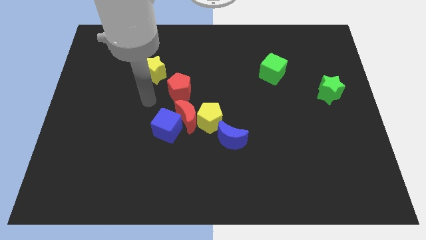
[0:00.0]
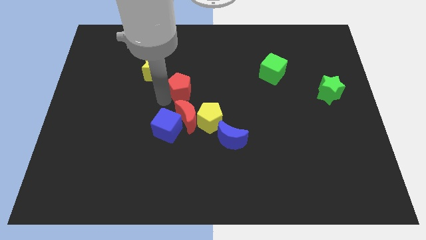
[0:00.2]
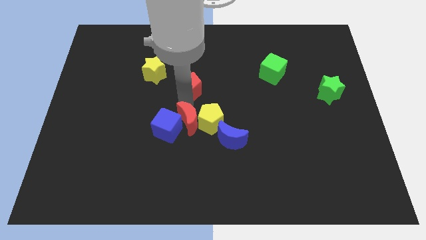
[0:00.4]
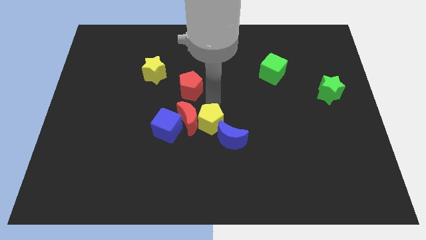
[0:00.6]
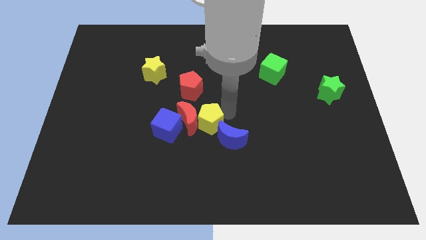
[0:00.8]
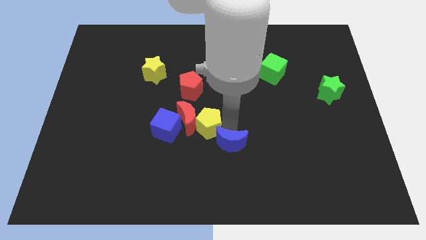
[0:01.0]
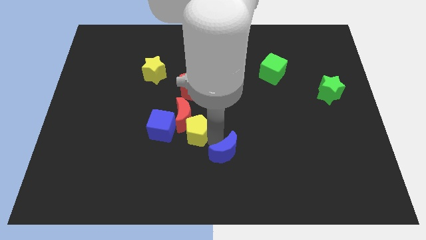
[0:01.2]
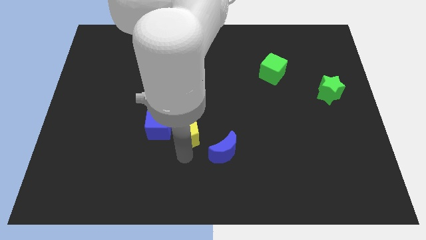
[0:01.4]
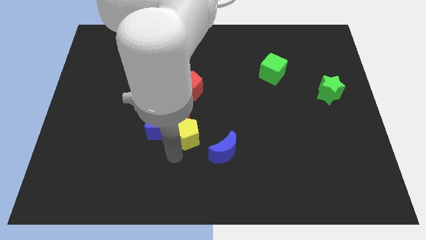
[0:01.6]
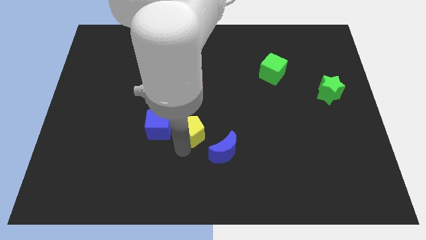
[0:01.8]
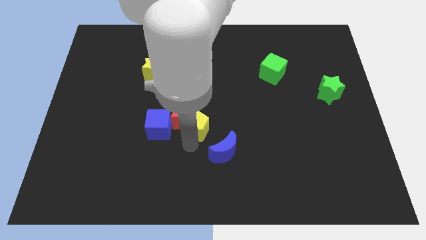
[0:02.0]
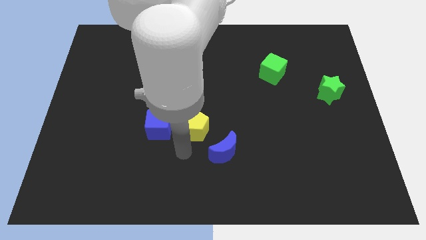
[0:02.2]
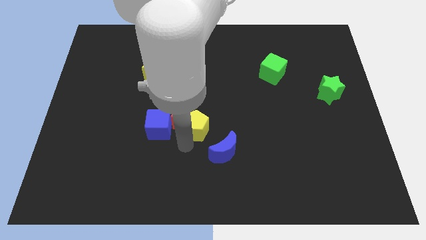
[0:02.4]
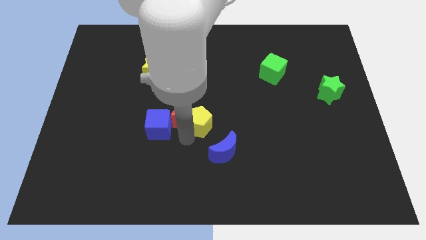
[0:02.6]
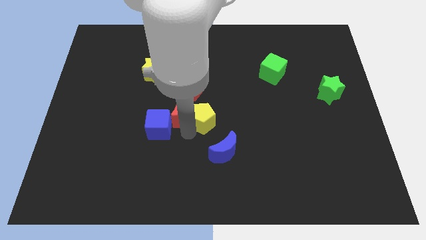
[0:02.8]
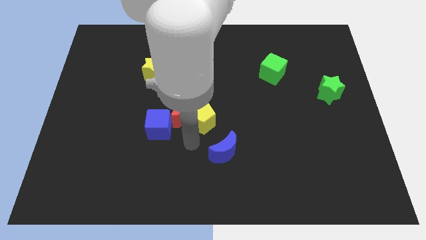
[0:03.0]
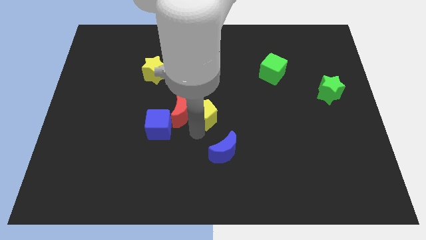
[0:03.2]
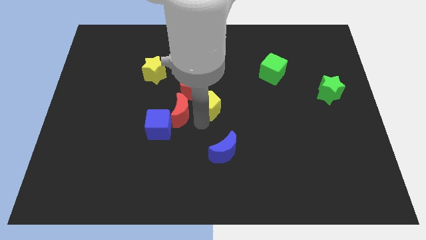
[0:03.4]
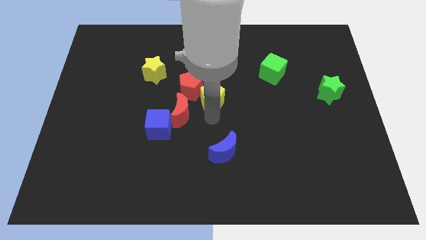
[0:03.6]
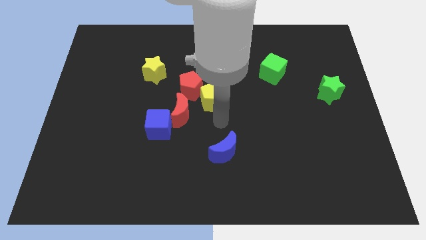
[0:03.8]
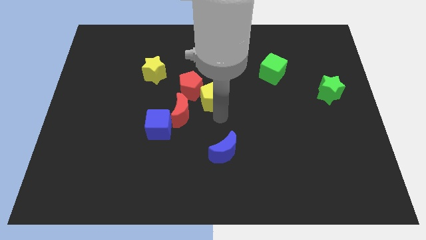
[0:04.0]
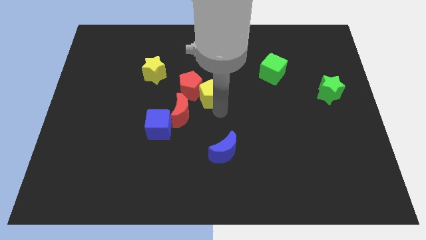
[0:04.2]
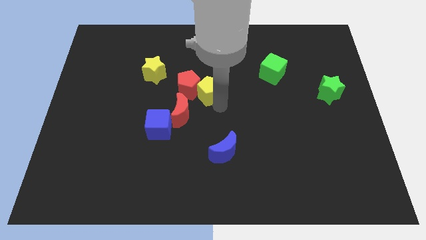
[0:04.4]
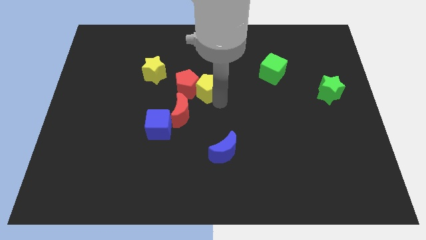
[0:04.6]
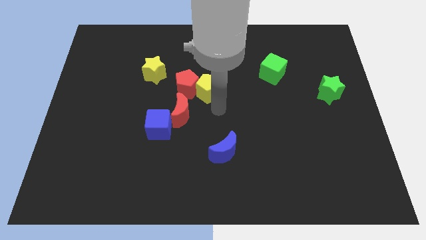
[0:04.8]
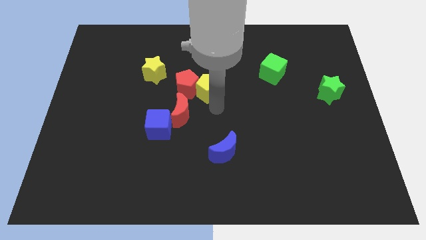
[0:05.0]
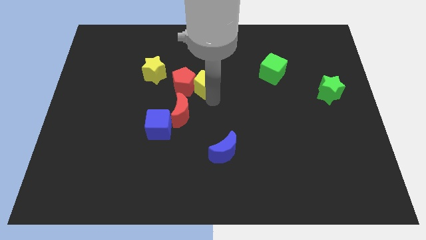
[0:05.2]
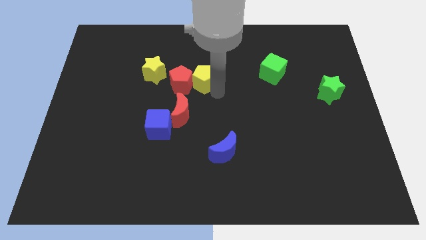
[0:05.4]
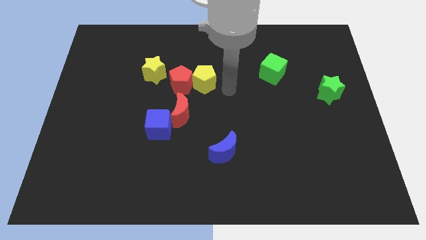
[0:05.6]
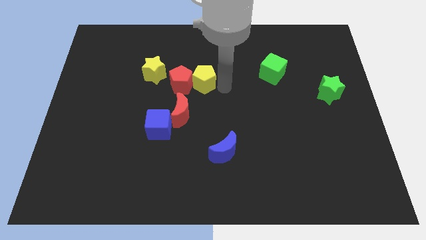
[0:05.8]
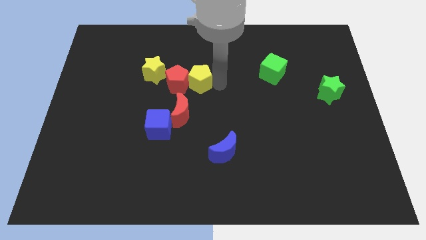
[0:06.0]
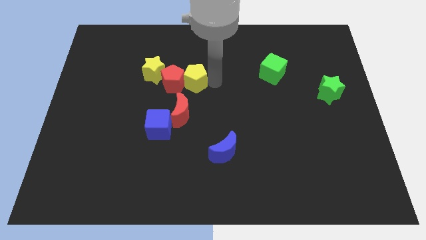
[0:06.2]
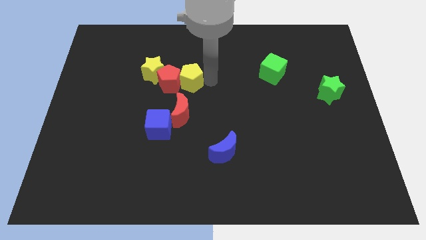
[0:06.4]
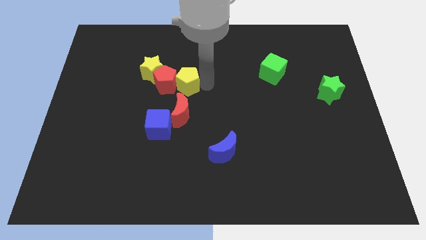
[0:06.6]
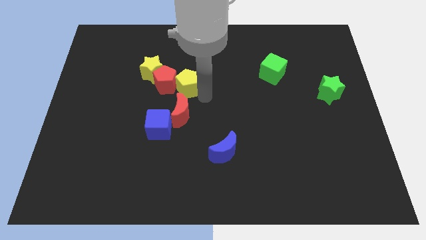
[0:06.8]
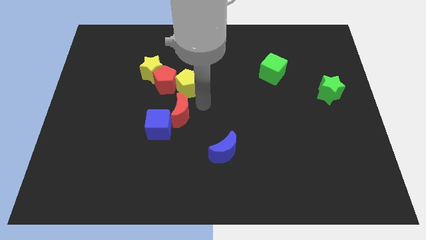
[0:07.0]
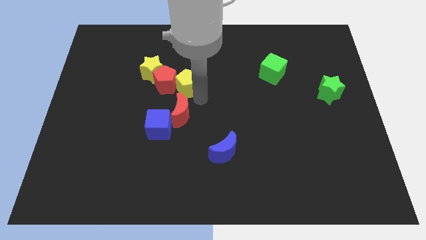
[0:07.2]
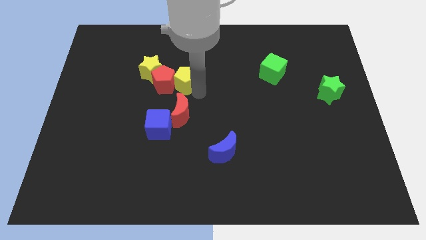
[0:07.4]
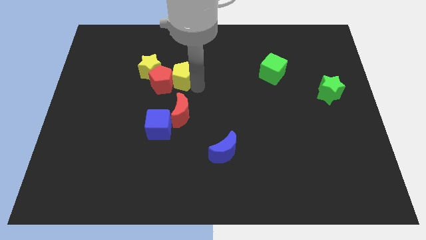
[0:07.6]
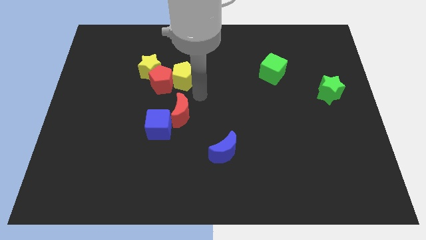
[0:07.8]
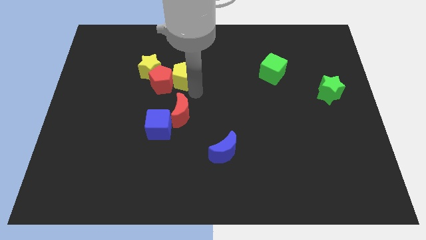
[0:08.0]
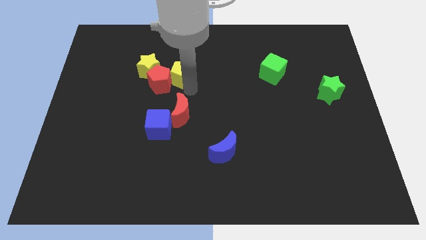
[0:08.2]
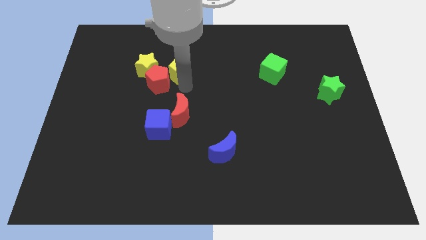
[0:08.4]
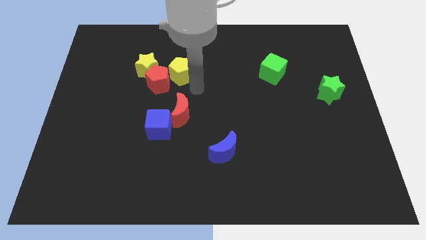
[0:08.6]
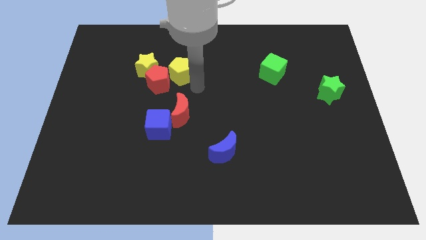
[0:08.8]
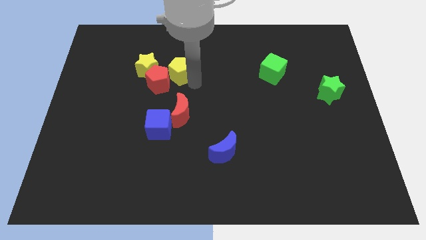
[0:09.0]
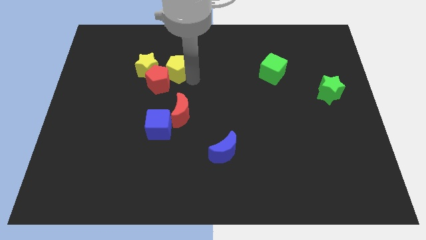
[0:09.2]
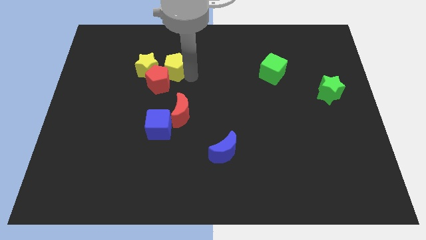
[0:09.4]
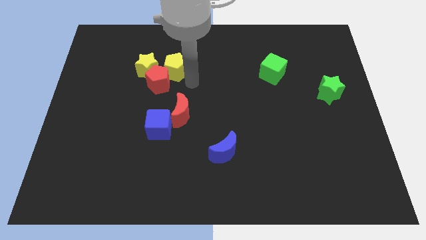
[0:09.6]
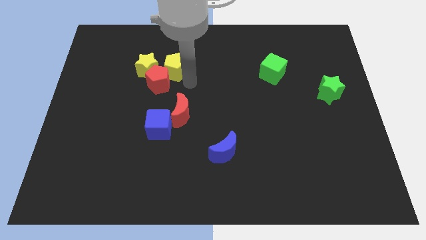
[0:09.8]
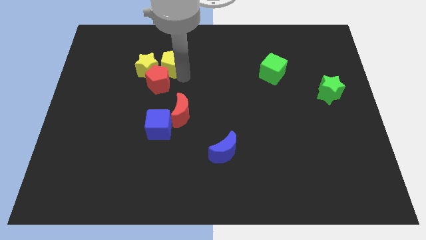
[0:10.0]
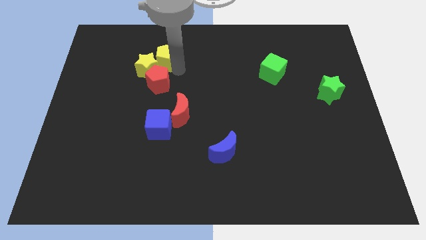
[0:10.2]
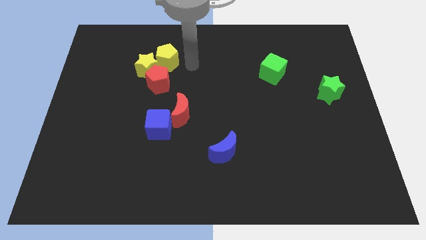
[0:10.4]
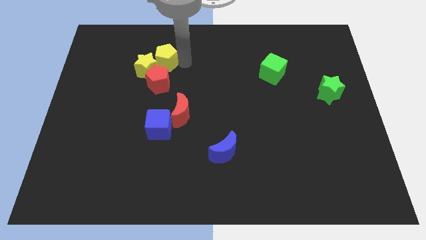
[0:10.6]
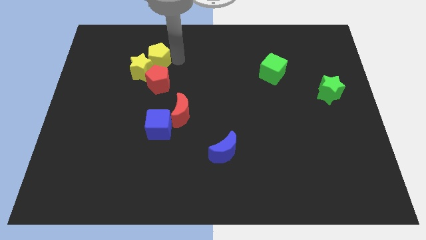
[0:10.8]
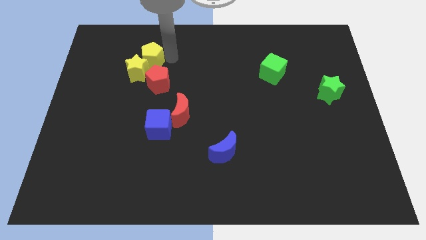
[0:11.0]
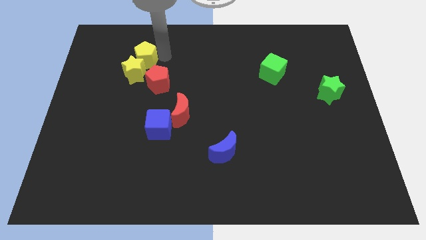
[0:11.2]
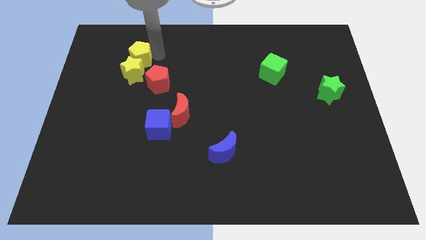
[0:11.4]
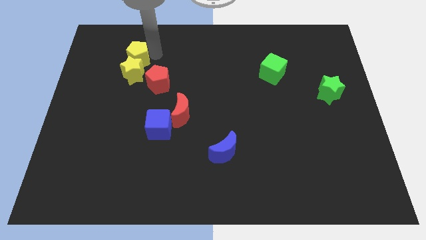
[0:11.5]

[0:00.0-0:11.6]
move the yellow pentagon diagonally up and to the left of the yellow star

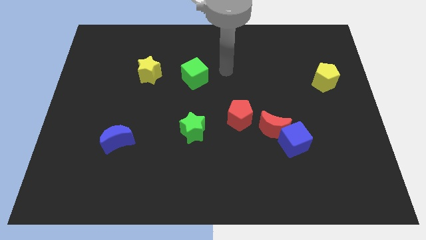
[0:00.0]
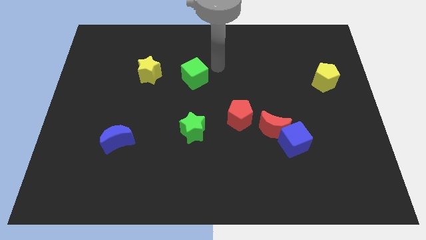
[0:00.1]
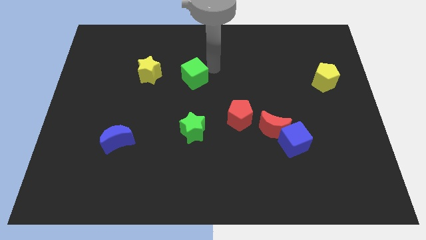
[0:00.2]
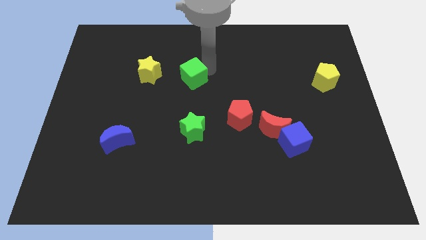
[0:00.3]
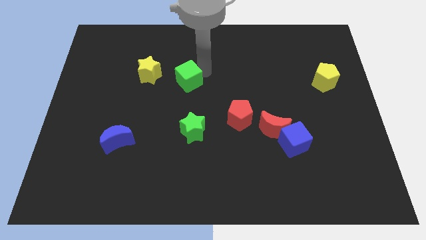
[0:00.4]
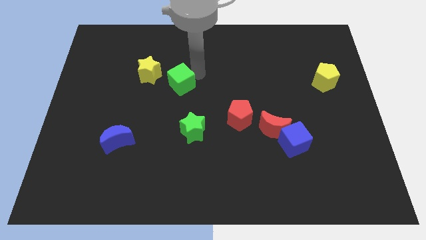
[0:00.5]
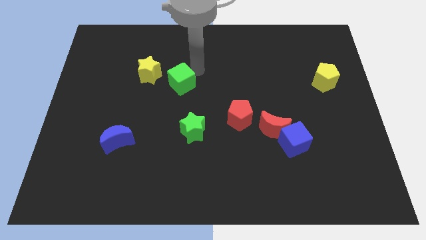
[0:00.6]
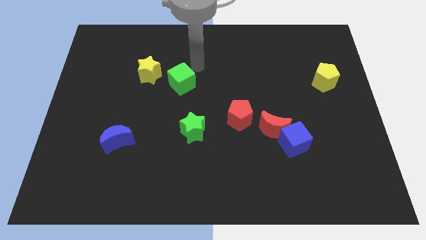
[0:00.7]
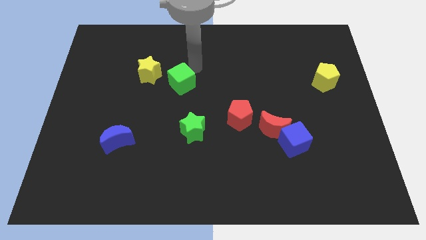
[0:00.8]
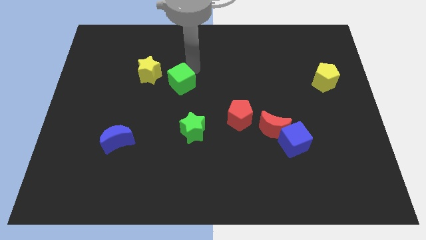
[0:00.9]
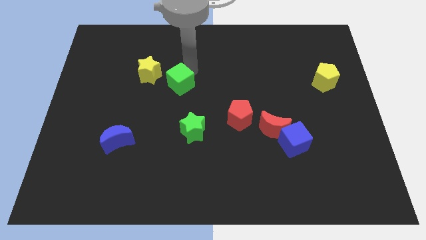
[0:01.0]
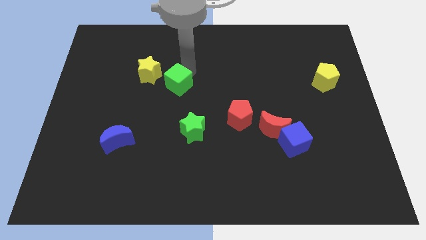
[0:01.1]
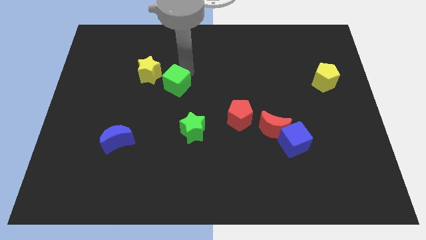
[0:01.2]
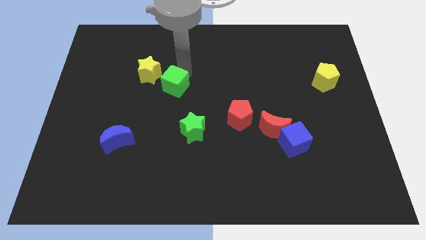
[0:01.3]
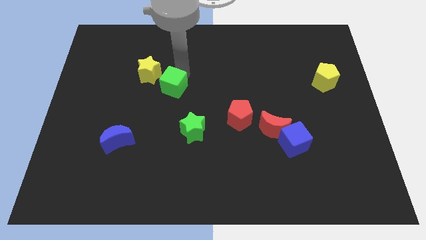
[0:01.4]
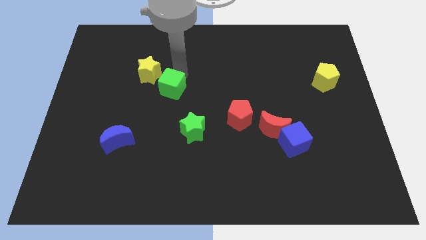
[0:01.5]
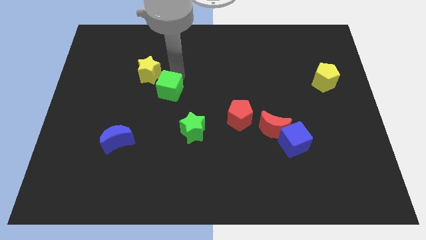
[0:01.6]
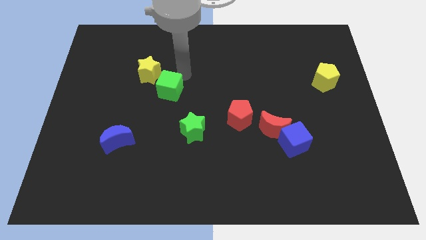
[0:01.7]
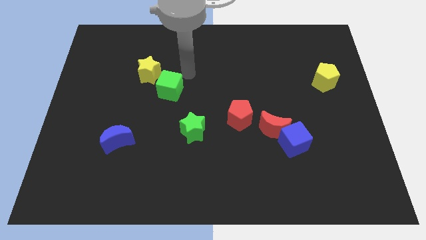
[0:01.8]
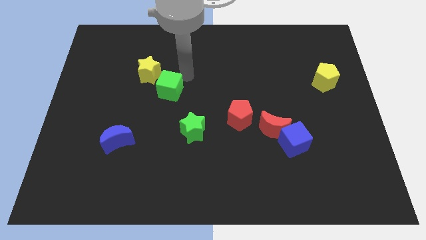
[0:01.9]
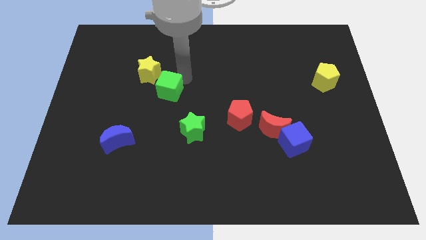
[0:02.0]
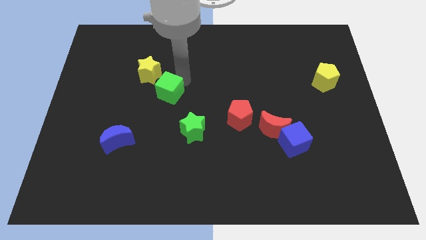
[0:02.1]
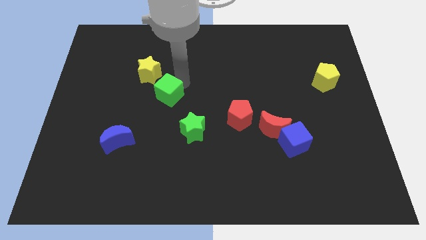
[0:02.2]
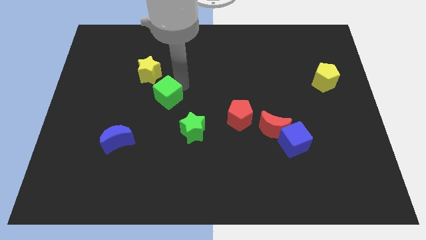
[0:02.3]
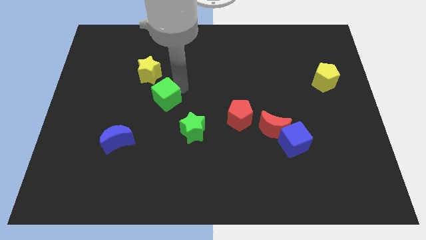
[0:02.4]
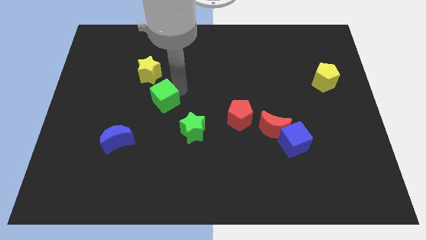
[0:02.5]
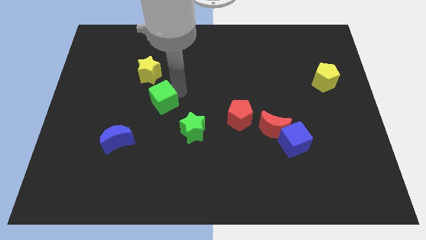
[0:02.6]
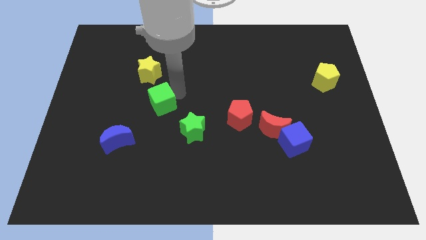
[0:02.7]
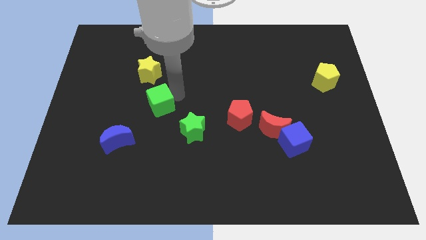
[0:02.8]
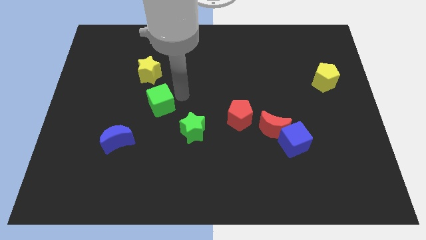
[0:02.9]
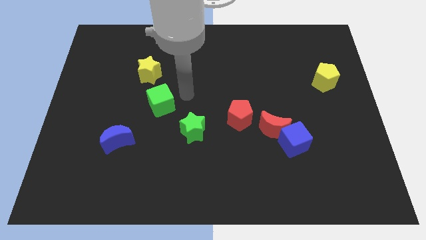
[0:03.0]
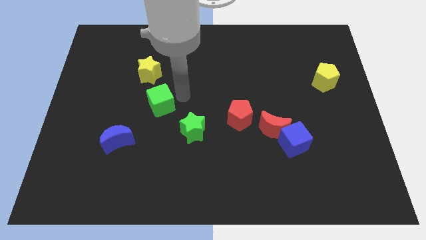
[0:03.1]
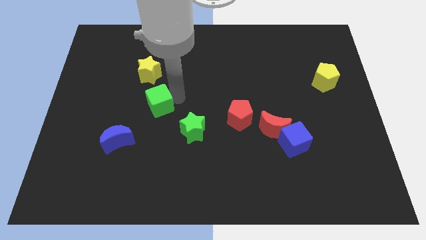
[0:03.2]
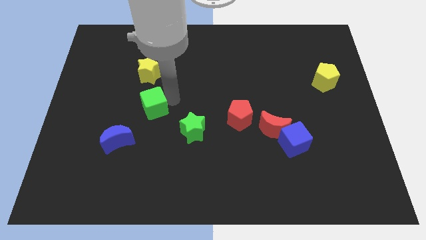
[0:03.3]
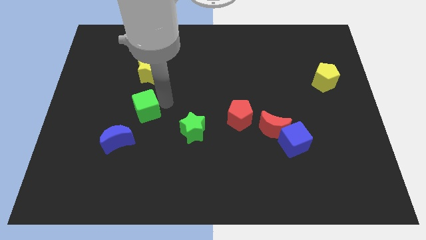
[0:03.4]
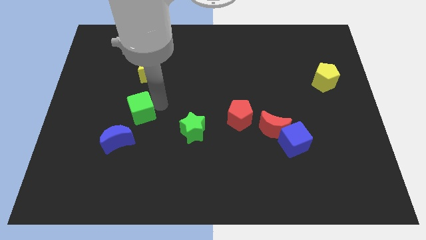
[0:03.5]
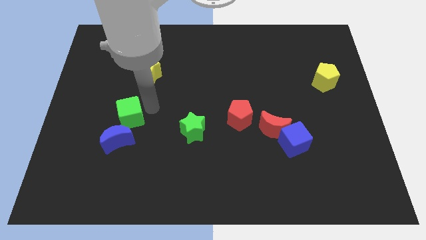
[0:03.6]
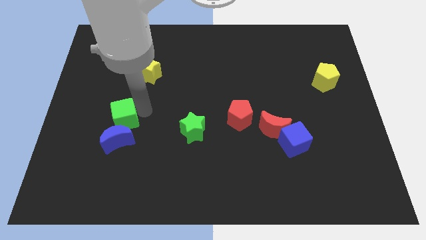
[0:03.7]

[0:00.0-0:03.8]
slide the green cube to the top left of the blue moon
